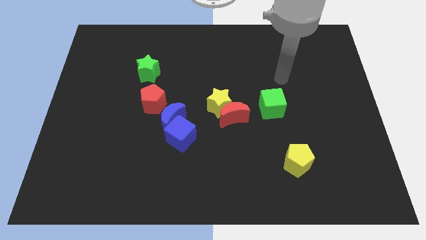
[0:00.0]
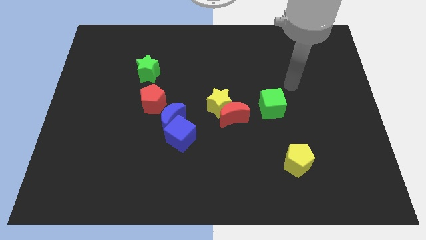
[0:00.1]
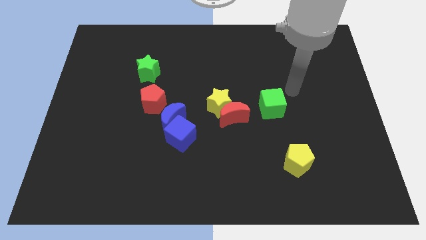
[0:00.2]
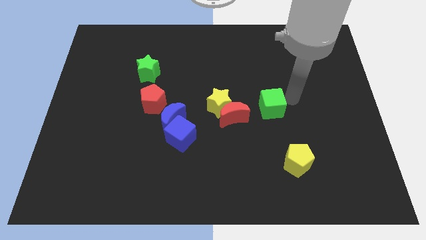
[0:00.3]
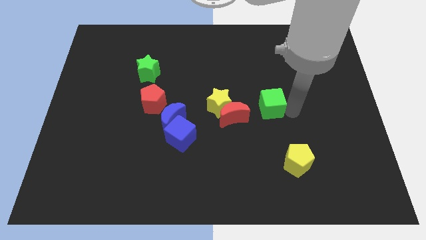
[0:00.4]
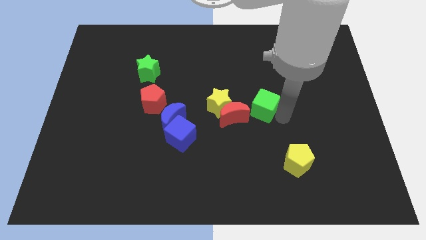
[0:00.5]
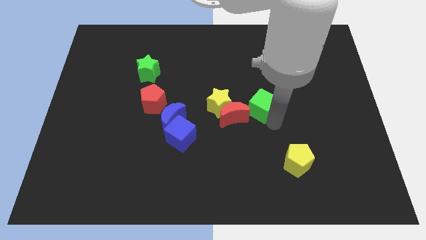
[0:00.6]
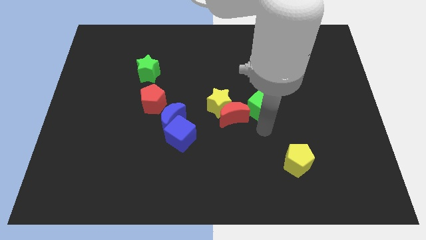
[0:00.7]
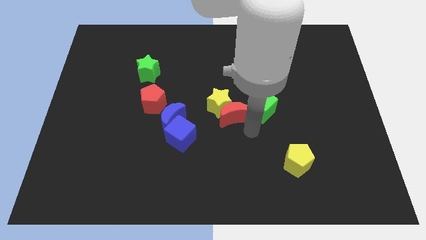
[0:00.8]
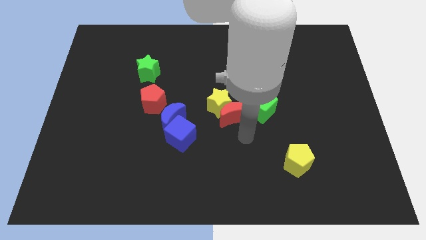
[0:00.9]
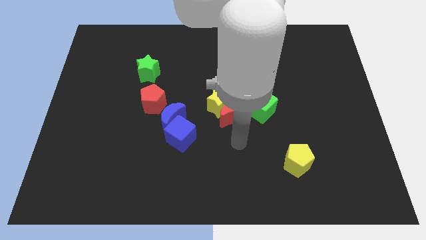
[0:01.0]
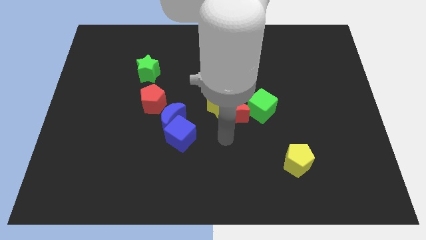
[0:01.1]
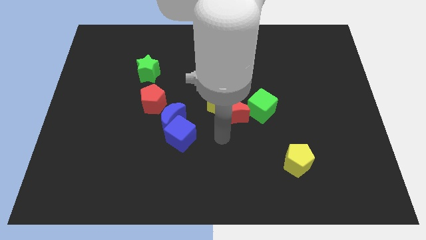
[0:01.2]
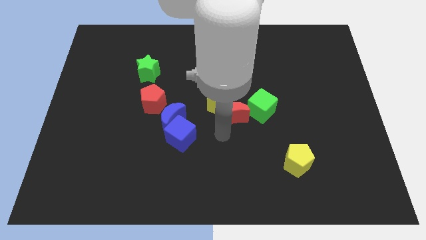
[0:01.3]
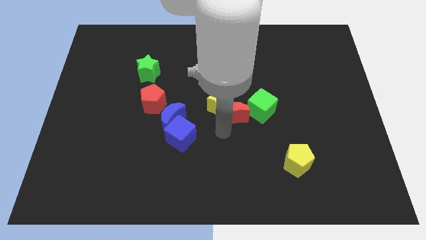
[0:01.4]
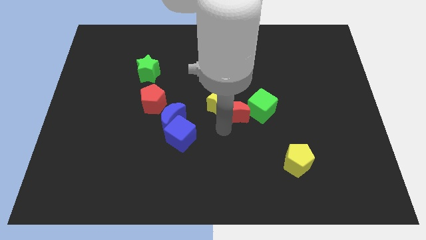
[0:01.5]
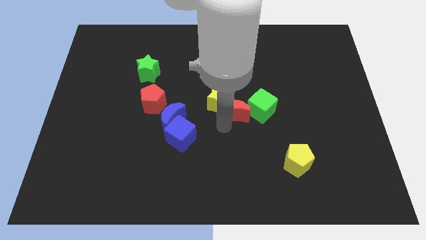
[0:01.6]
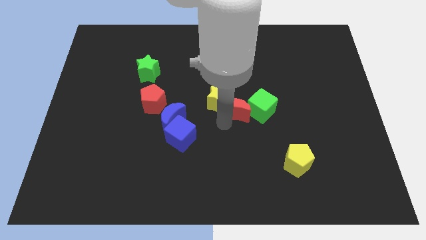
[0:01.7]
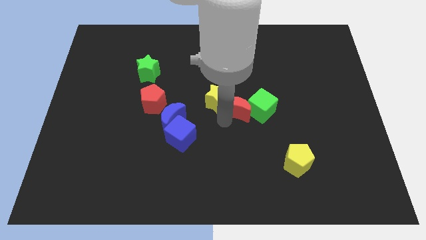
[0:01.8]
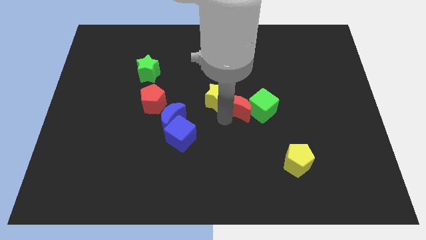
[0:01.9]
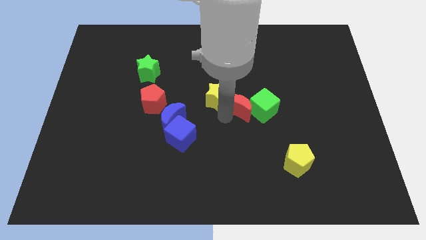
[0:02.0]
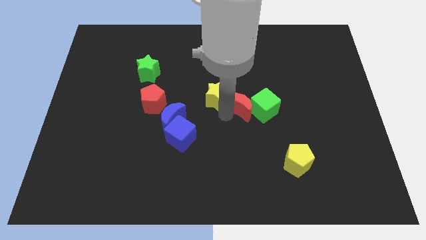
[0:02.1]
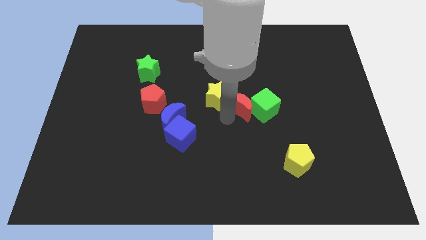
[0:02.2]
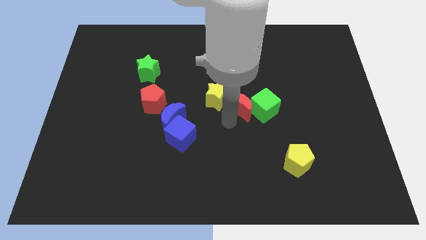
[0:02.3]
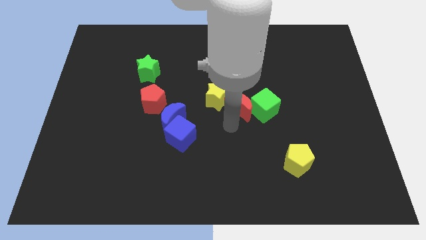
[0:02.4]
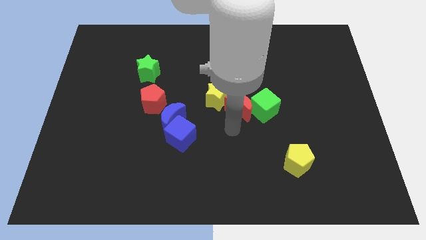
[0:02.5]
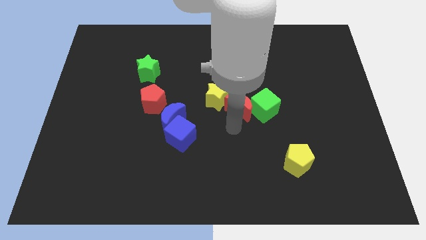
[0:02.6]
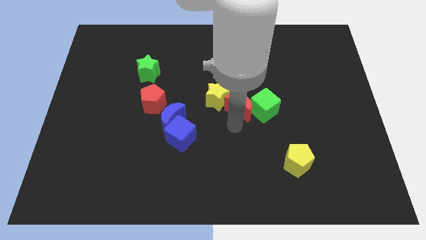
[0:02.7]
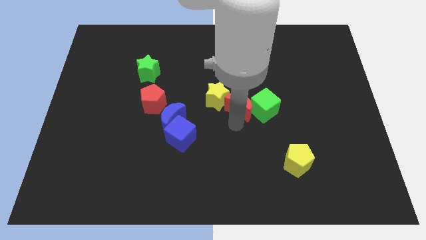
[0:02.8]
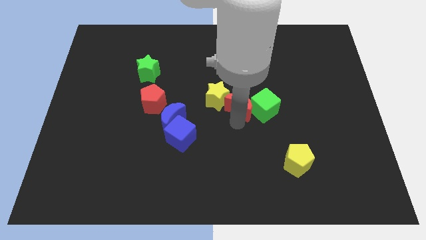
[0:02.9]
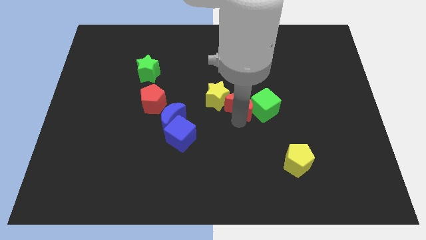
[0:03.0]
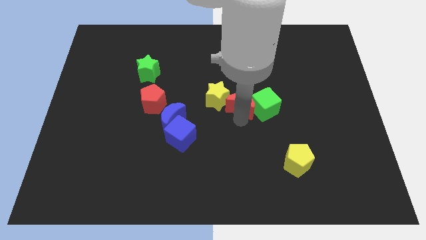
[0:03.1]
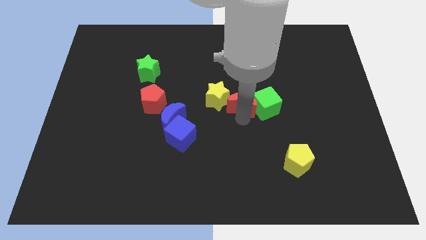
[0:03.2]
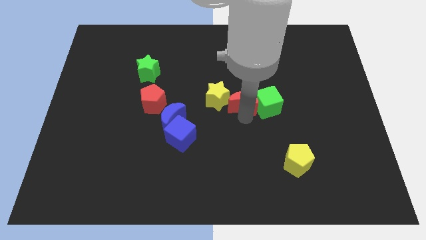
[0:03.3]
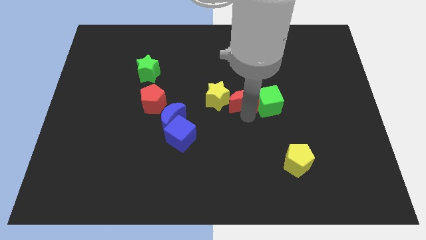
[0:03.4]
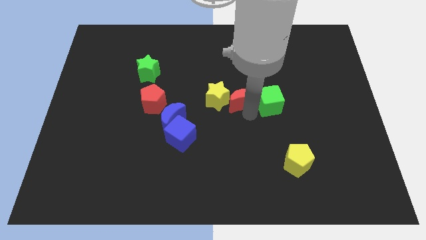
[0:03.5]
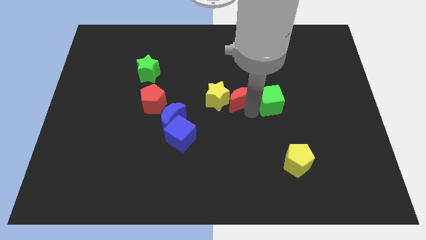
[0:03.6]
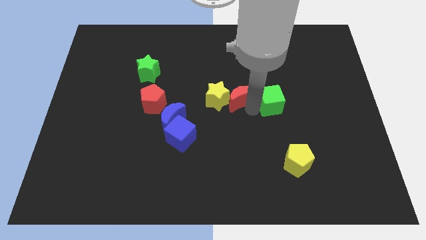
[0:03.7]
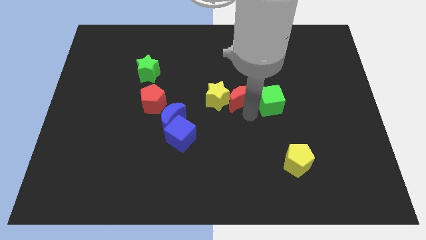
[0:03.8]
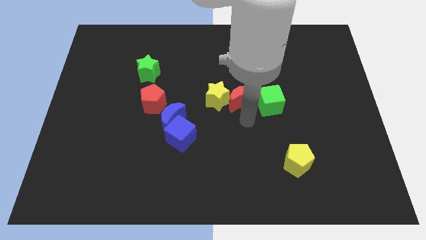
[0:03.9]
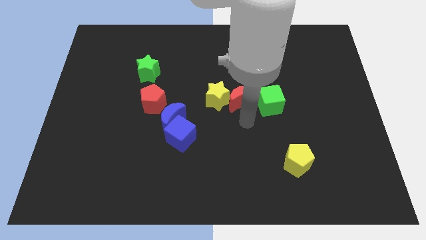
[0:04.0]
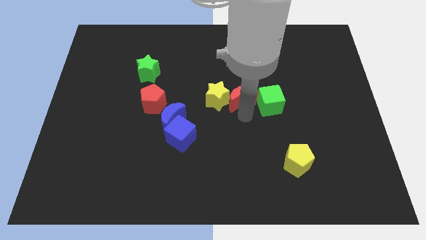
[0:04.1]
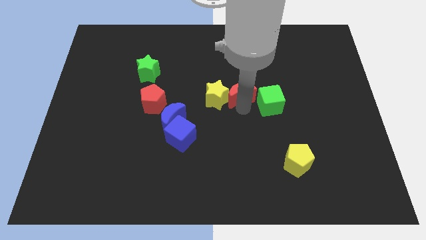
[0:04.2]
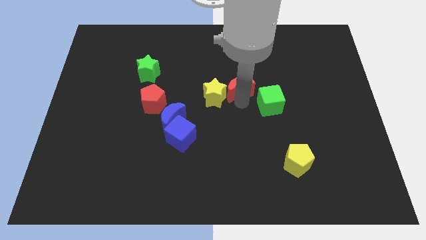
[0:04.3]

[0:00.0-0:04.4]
slightly slide the red moon up

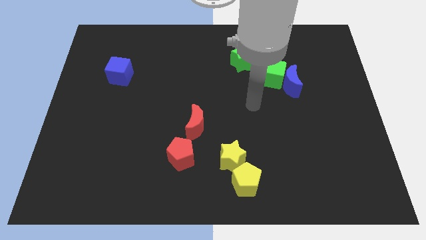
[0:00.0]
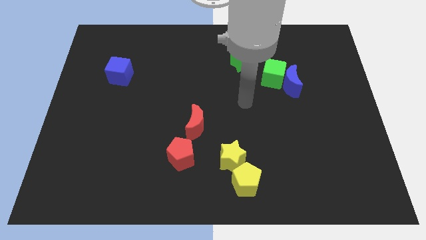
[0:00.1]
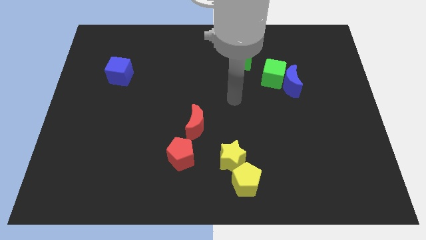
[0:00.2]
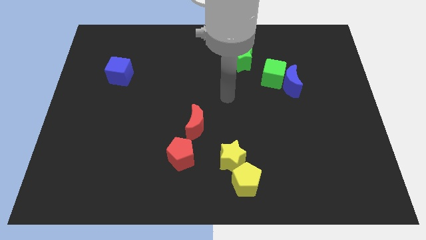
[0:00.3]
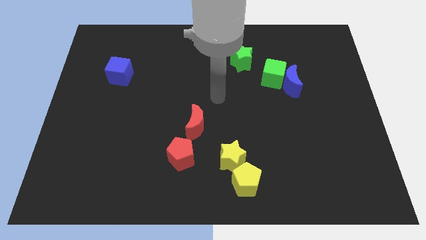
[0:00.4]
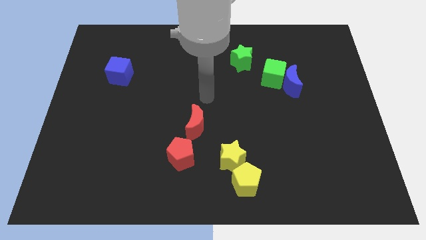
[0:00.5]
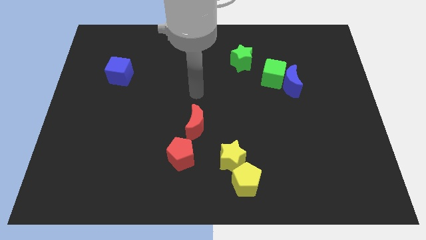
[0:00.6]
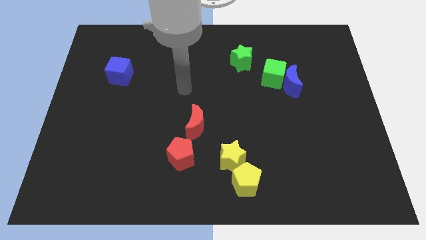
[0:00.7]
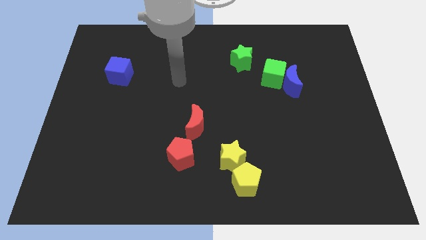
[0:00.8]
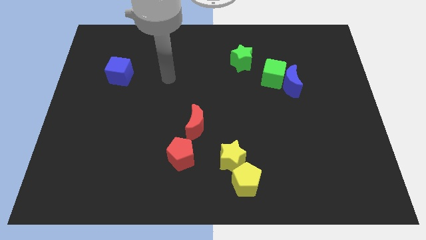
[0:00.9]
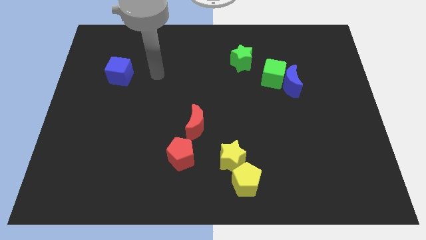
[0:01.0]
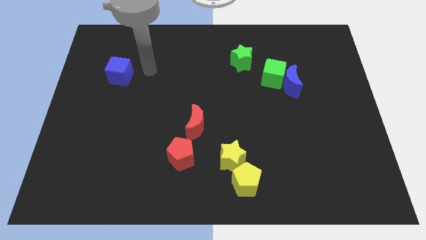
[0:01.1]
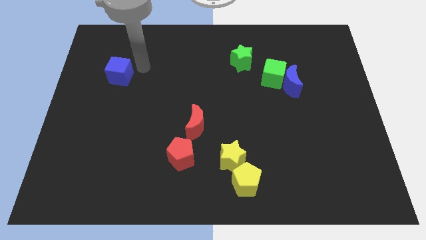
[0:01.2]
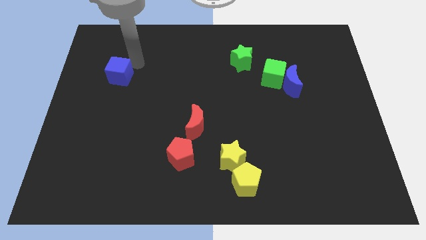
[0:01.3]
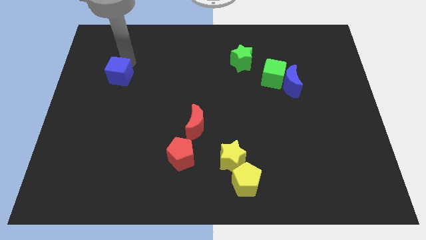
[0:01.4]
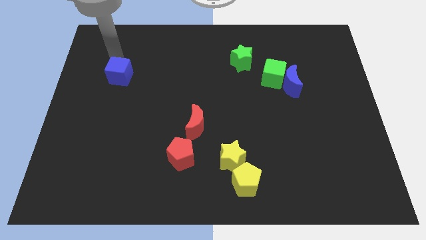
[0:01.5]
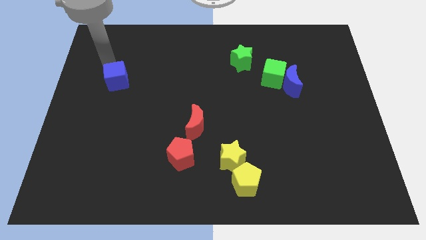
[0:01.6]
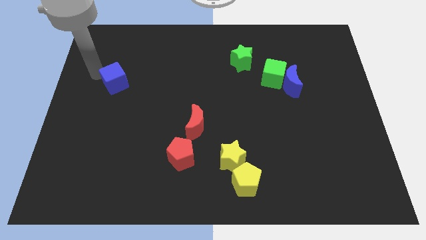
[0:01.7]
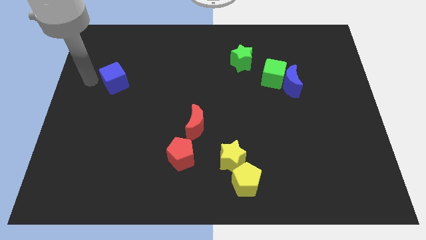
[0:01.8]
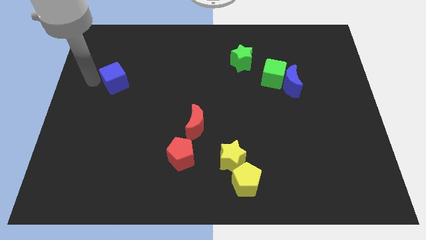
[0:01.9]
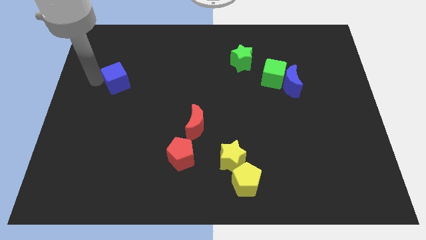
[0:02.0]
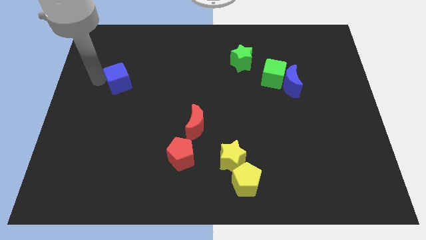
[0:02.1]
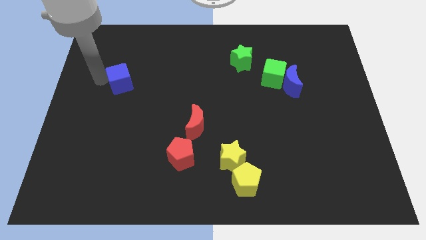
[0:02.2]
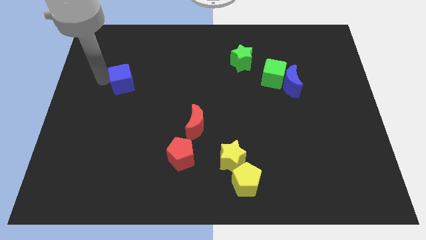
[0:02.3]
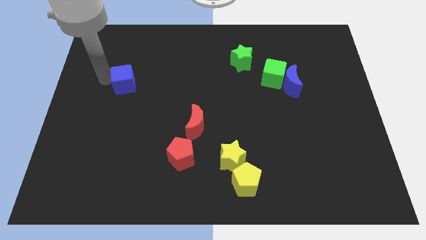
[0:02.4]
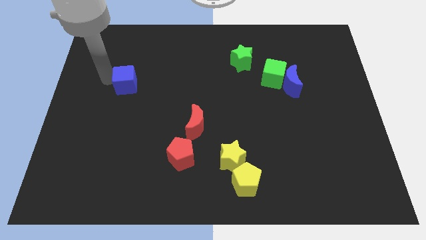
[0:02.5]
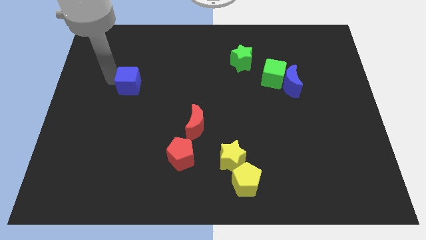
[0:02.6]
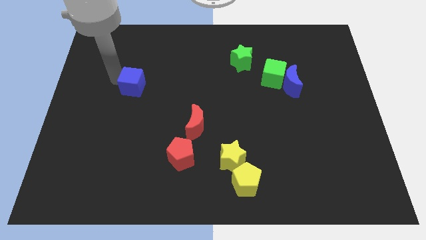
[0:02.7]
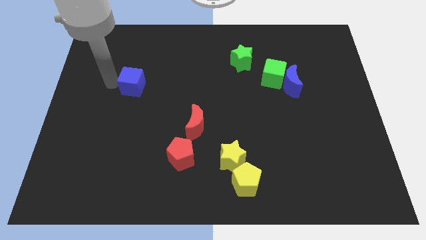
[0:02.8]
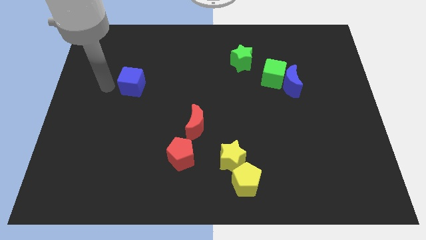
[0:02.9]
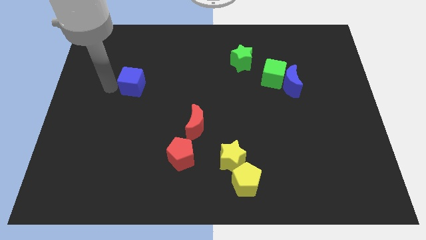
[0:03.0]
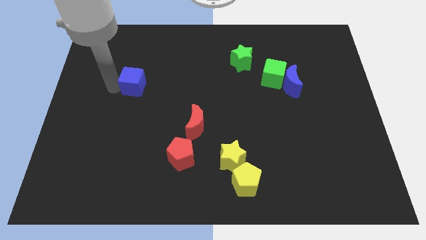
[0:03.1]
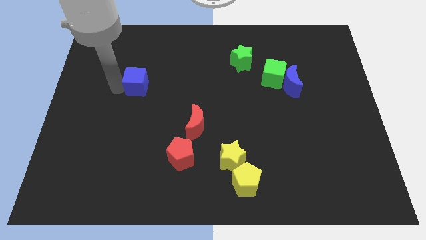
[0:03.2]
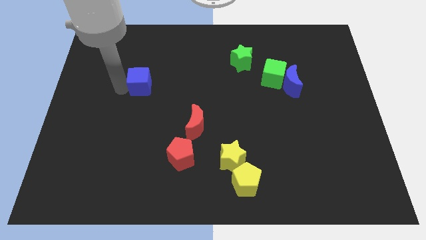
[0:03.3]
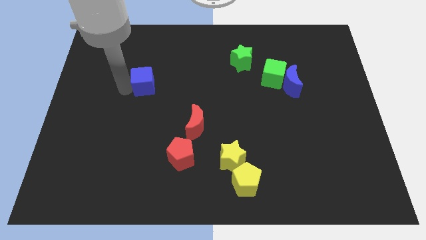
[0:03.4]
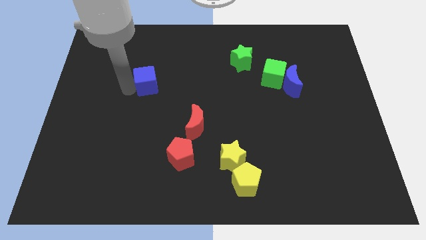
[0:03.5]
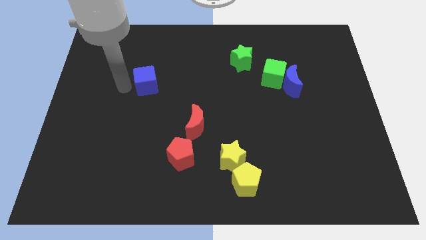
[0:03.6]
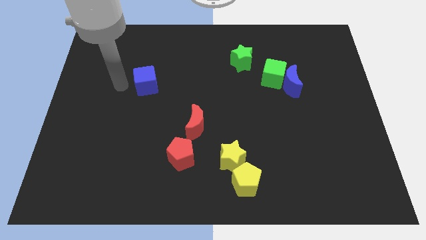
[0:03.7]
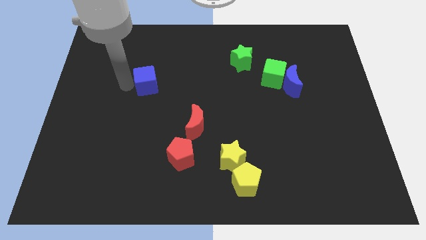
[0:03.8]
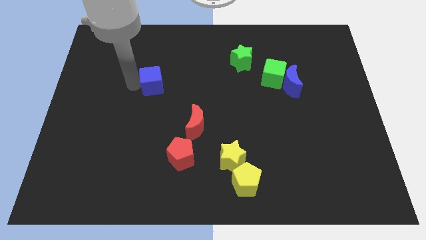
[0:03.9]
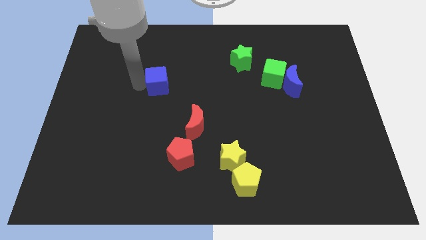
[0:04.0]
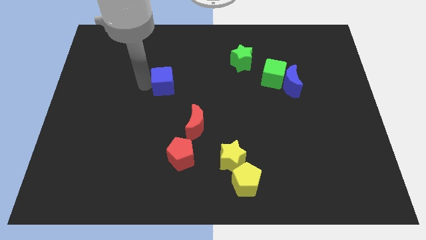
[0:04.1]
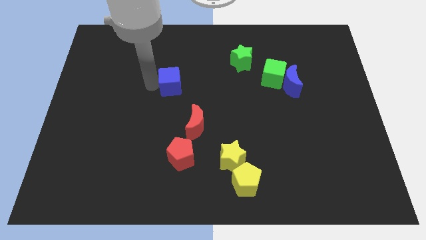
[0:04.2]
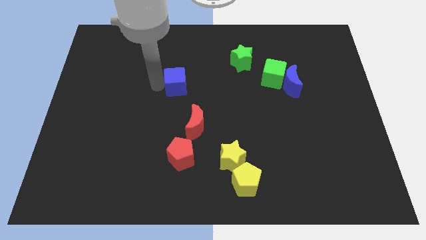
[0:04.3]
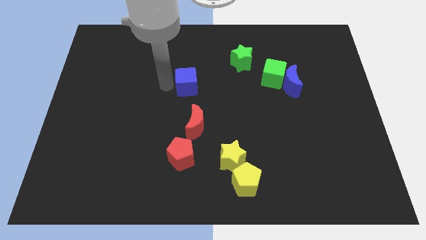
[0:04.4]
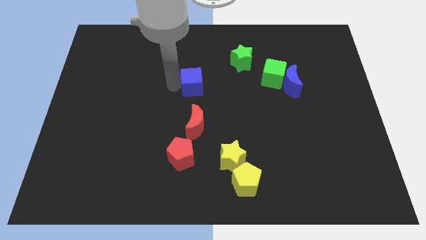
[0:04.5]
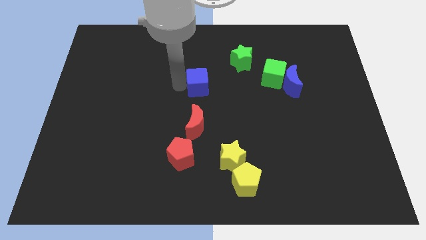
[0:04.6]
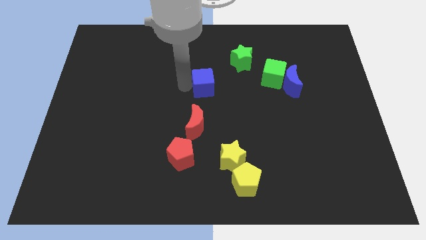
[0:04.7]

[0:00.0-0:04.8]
push the blue cube to the right
